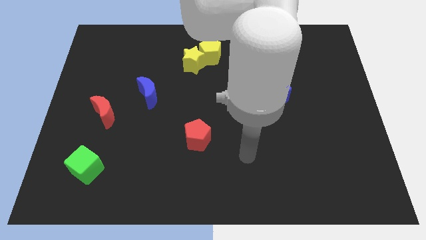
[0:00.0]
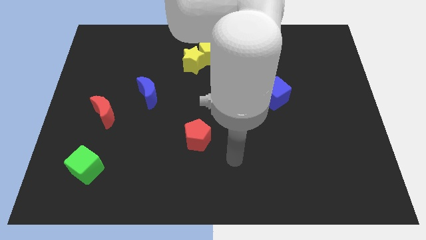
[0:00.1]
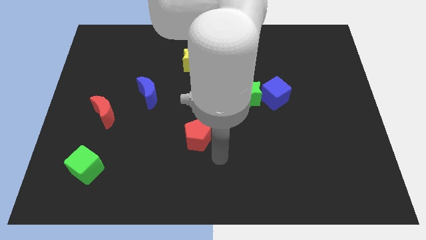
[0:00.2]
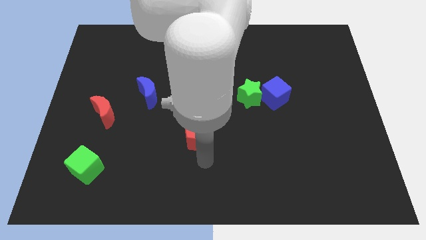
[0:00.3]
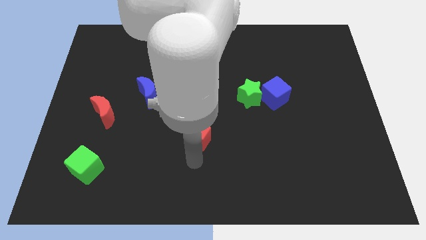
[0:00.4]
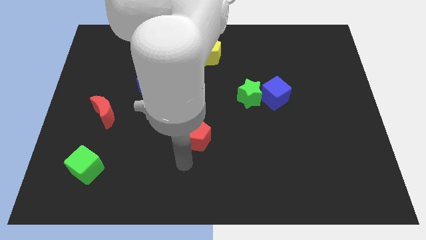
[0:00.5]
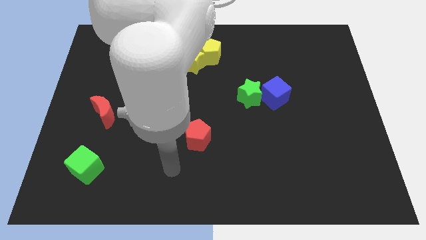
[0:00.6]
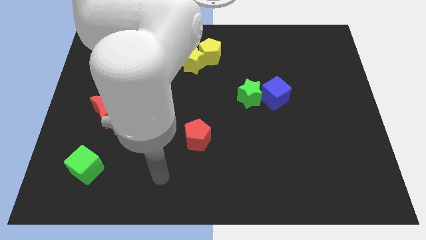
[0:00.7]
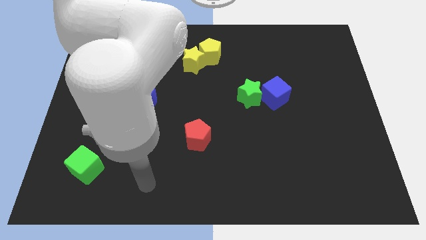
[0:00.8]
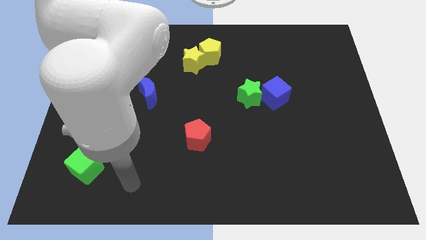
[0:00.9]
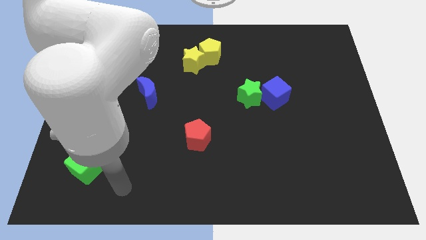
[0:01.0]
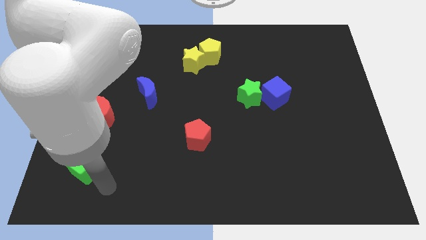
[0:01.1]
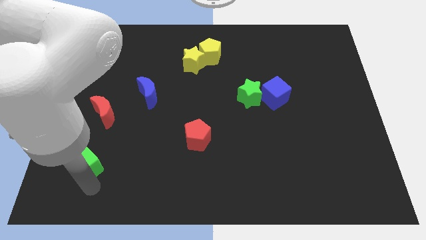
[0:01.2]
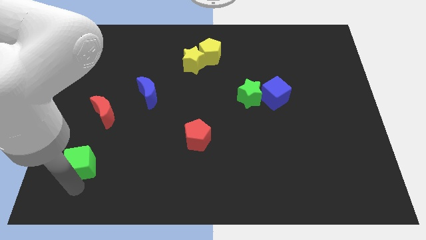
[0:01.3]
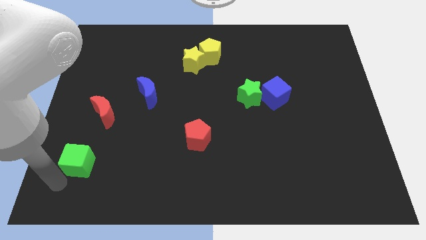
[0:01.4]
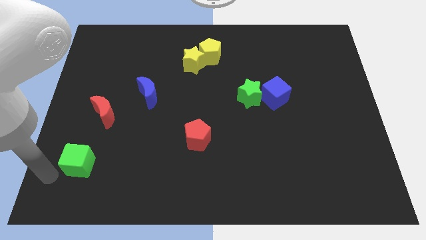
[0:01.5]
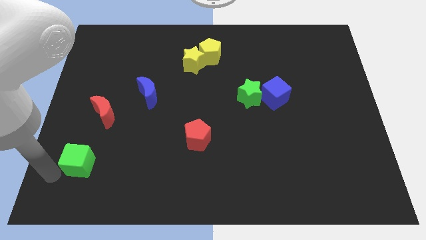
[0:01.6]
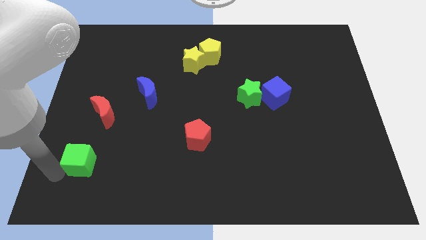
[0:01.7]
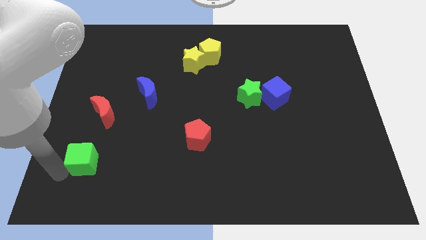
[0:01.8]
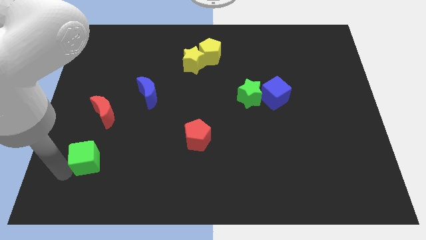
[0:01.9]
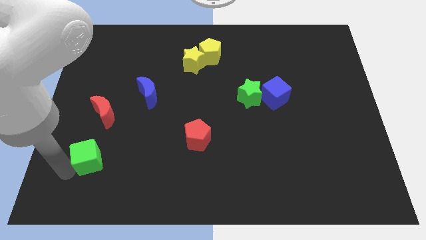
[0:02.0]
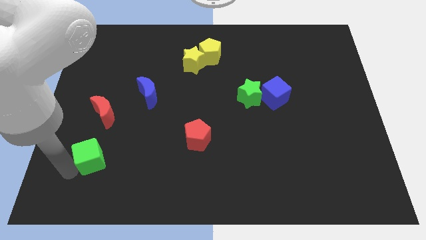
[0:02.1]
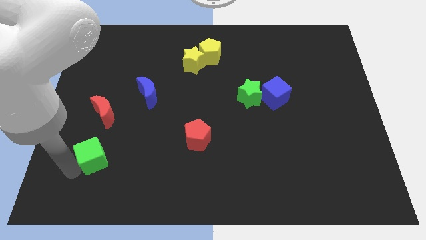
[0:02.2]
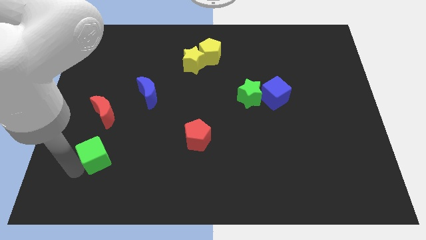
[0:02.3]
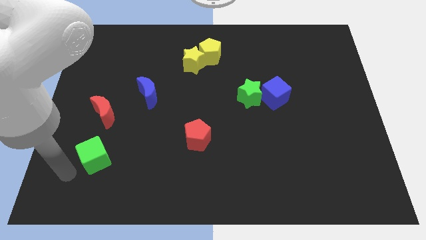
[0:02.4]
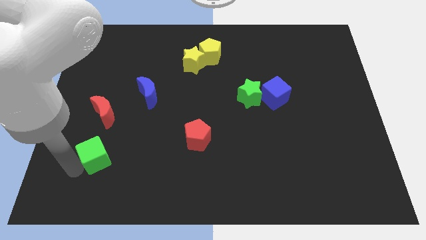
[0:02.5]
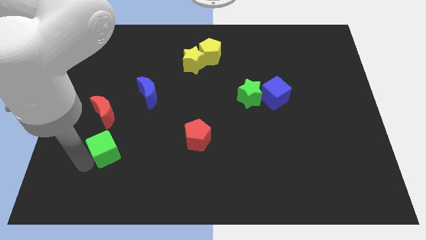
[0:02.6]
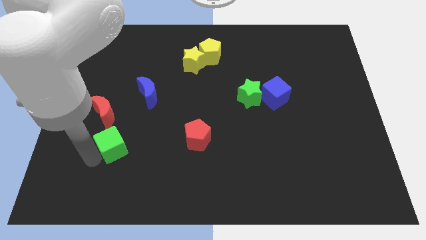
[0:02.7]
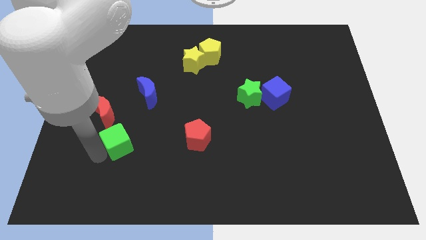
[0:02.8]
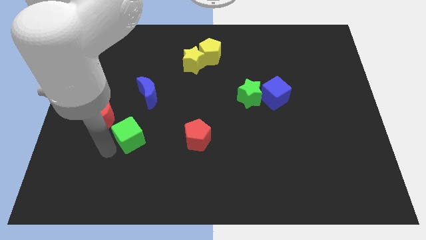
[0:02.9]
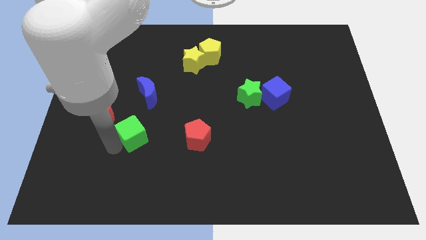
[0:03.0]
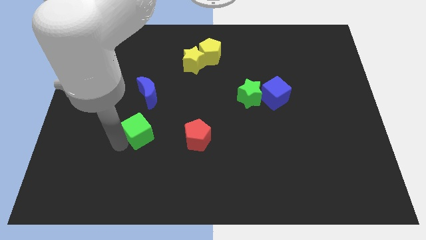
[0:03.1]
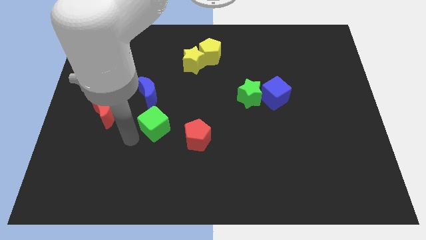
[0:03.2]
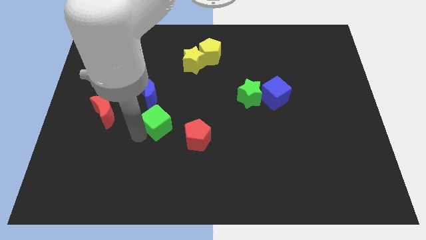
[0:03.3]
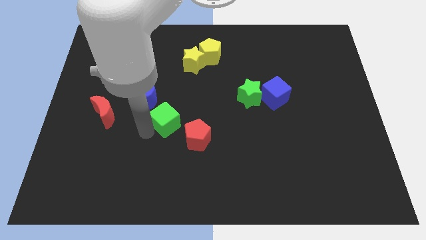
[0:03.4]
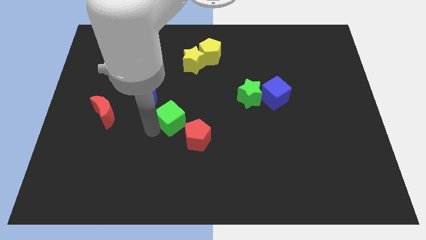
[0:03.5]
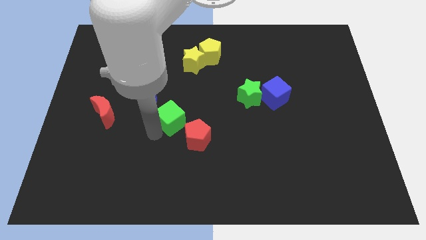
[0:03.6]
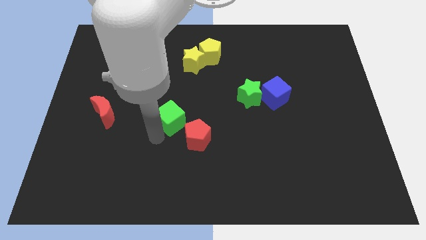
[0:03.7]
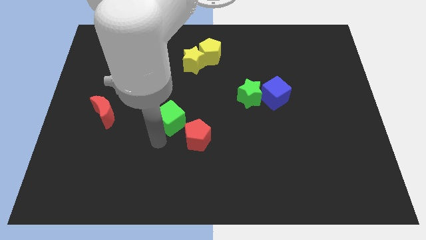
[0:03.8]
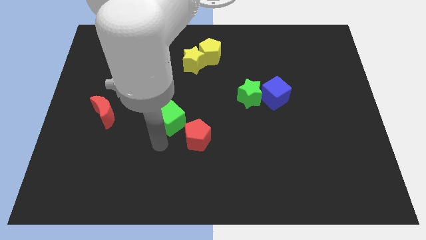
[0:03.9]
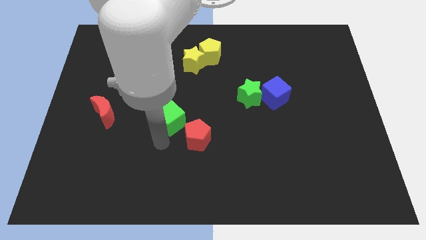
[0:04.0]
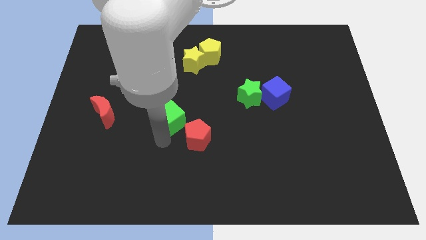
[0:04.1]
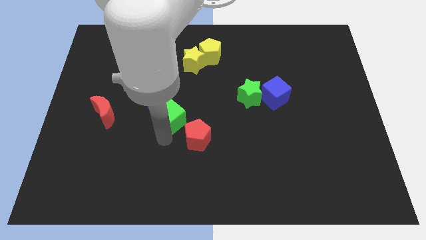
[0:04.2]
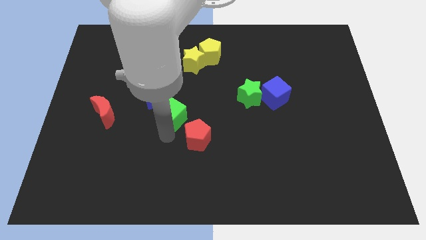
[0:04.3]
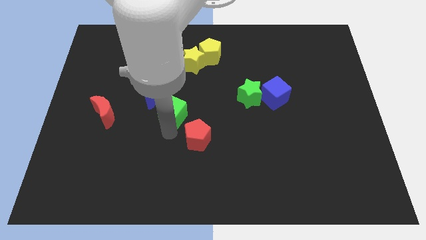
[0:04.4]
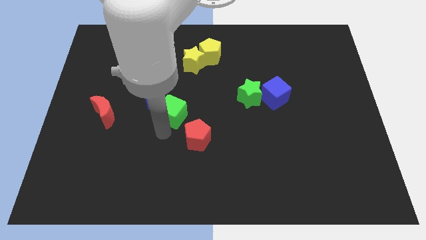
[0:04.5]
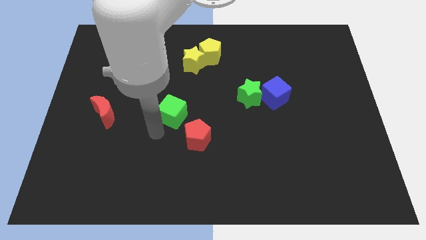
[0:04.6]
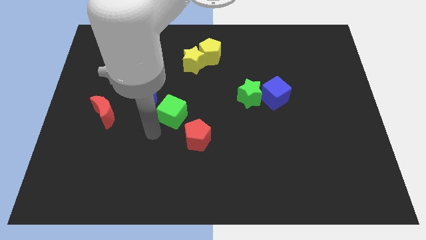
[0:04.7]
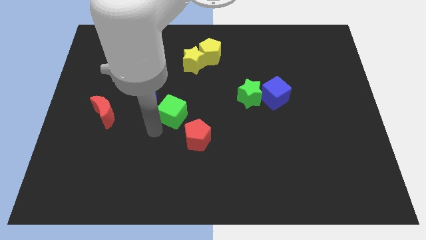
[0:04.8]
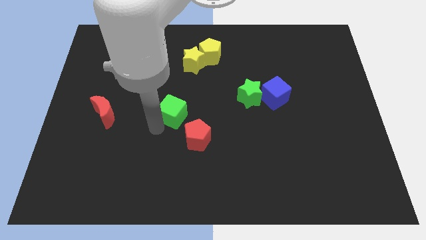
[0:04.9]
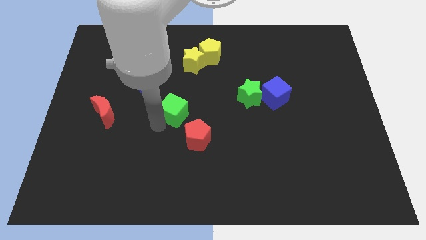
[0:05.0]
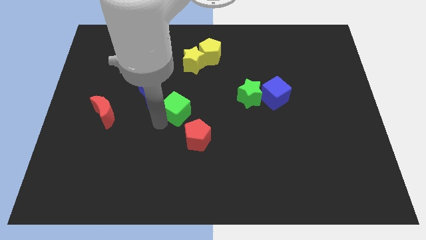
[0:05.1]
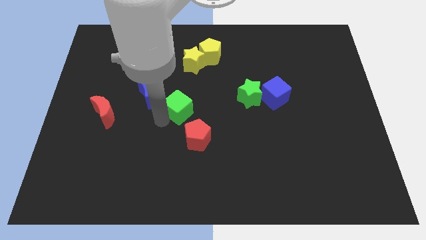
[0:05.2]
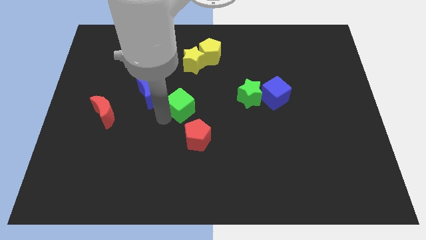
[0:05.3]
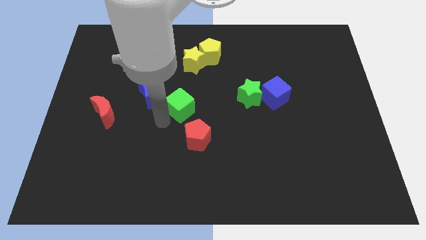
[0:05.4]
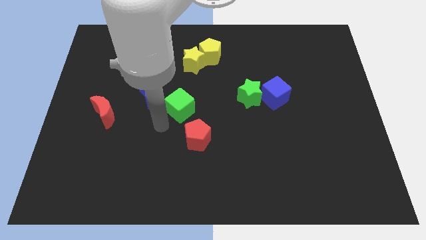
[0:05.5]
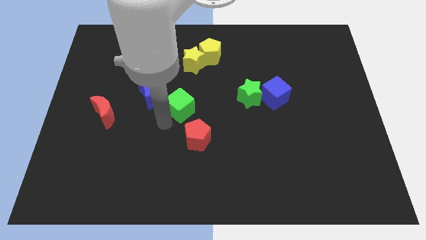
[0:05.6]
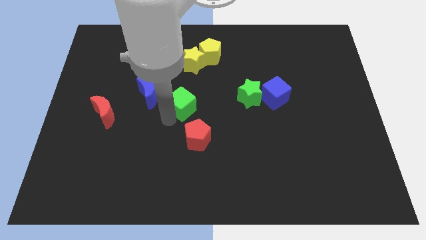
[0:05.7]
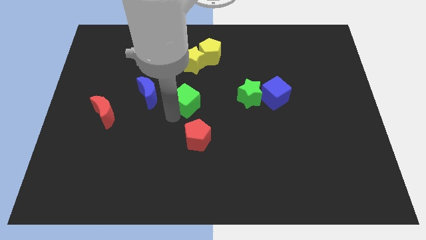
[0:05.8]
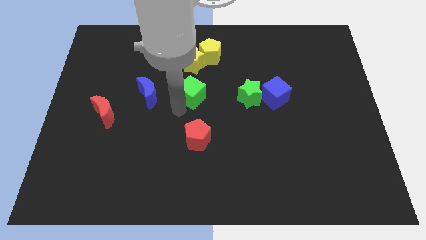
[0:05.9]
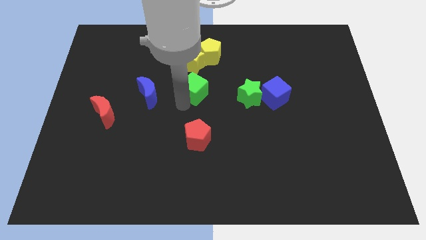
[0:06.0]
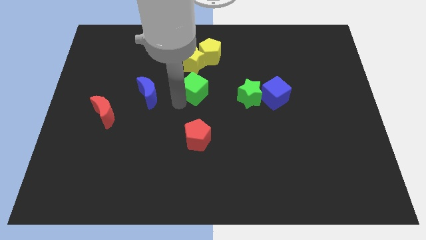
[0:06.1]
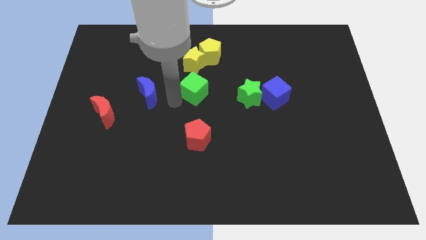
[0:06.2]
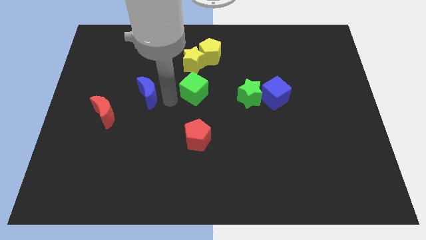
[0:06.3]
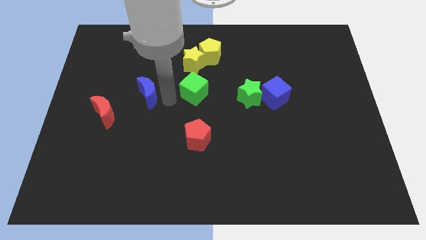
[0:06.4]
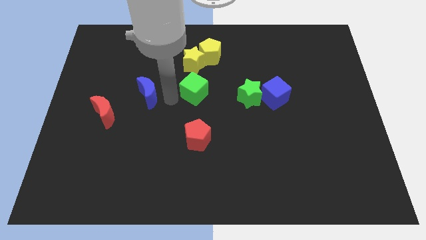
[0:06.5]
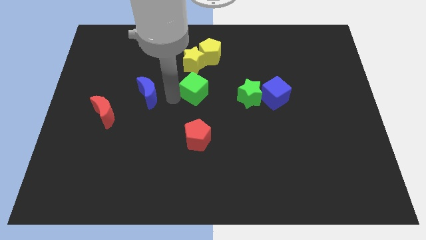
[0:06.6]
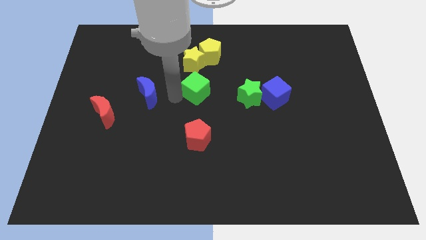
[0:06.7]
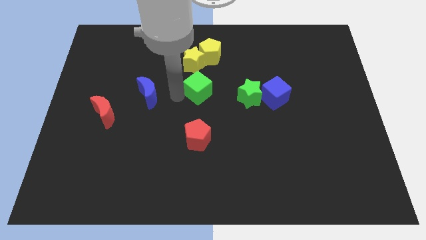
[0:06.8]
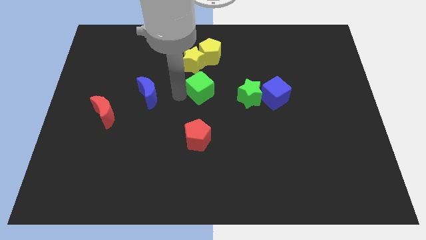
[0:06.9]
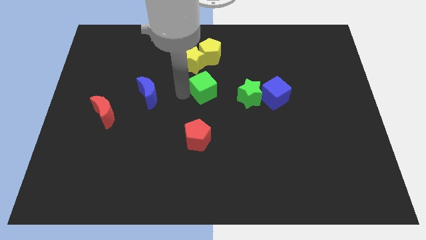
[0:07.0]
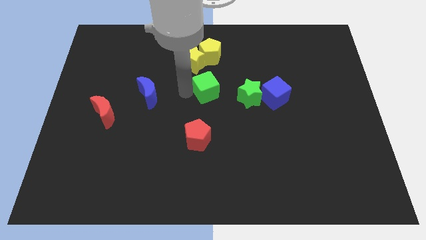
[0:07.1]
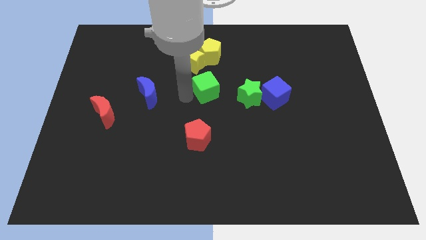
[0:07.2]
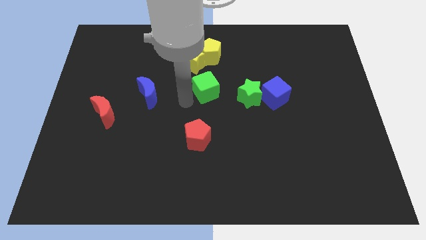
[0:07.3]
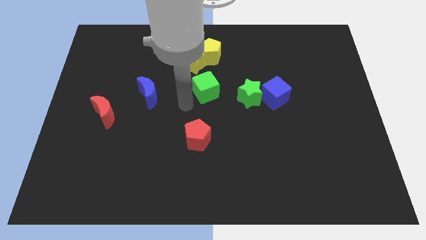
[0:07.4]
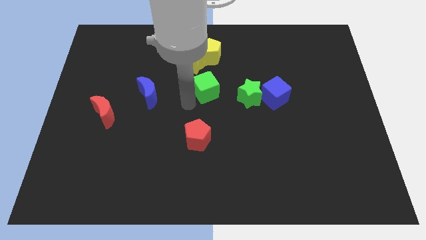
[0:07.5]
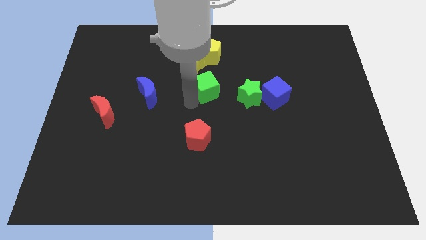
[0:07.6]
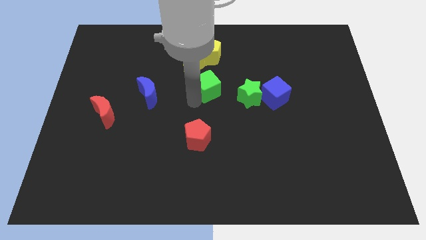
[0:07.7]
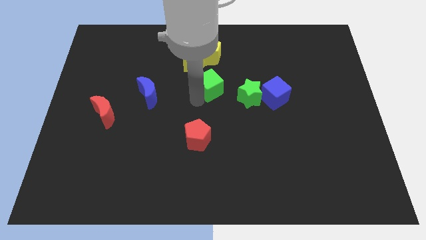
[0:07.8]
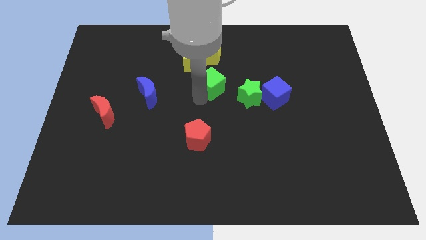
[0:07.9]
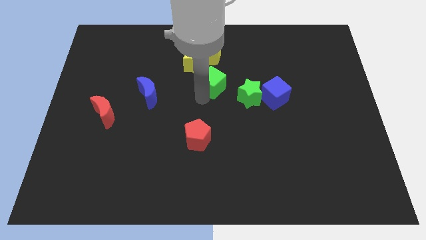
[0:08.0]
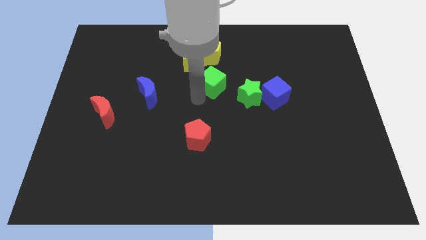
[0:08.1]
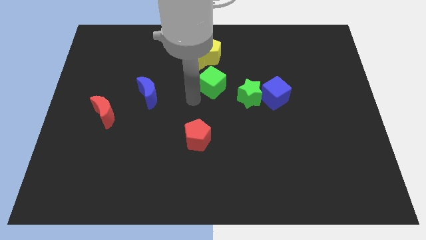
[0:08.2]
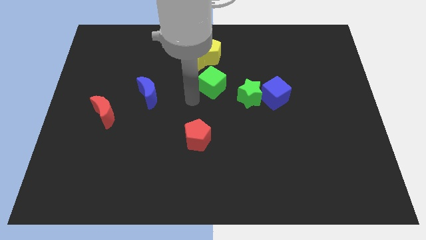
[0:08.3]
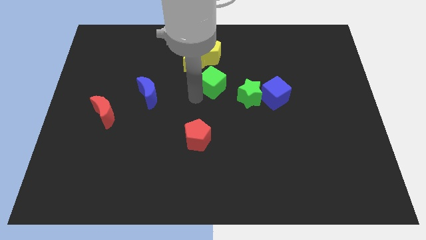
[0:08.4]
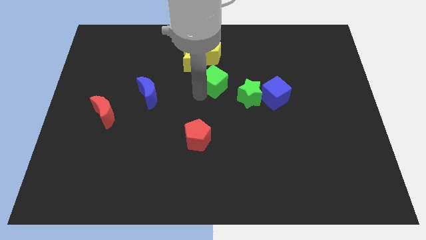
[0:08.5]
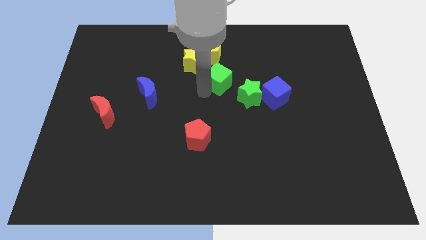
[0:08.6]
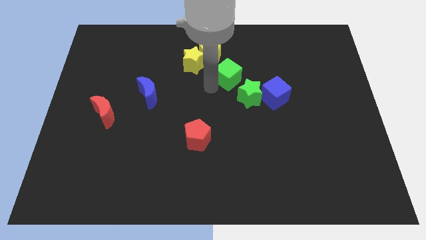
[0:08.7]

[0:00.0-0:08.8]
move the green cube to the top side of the green star
